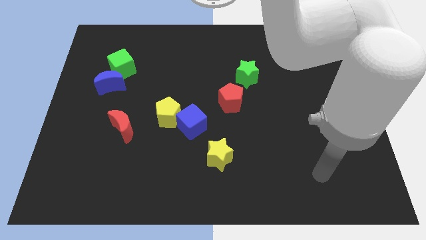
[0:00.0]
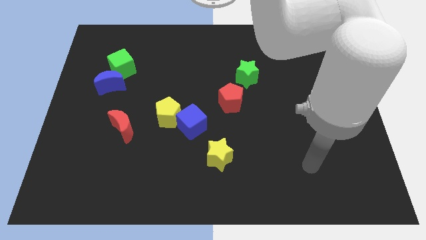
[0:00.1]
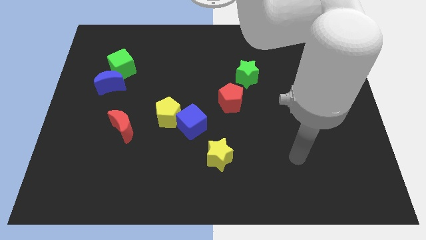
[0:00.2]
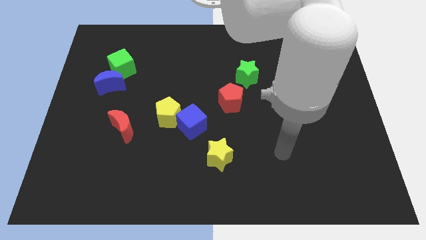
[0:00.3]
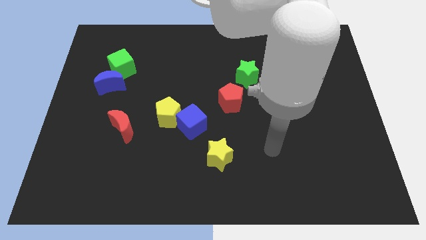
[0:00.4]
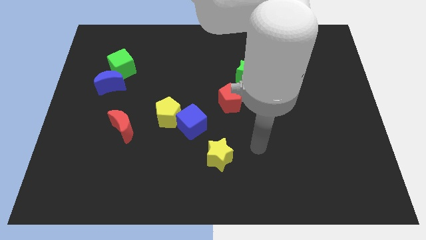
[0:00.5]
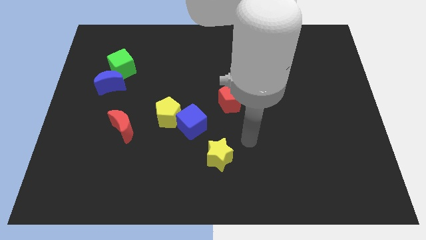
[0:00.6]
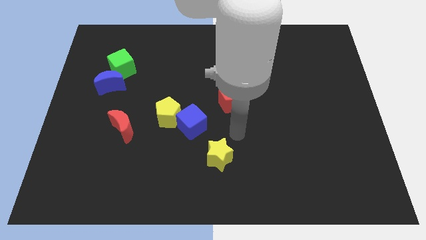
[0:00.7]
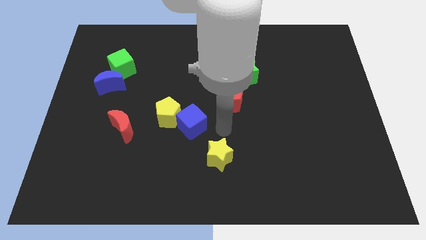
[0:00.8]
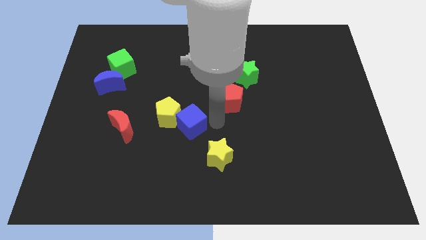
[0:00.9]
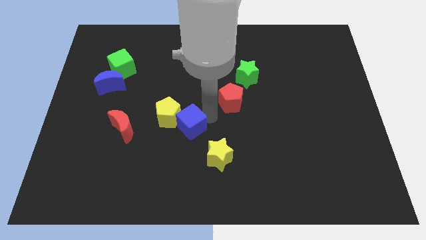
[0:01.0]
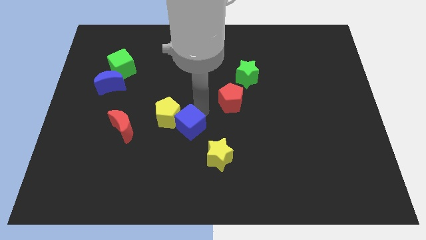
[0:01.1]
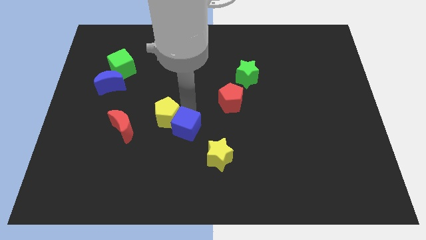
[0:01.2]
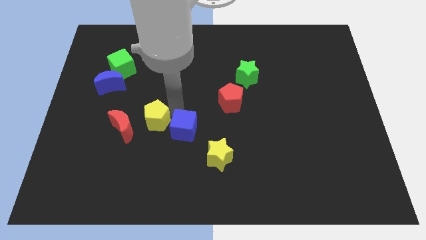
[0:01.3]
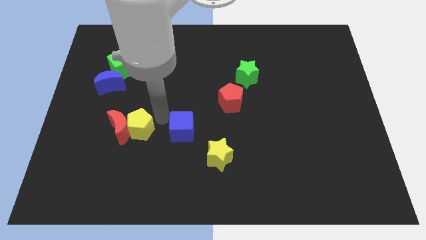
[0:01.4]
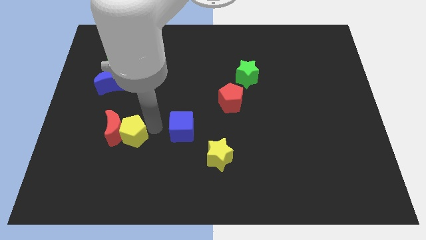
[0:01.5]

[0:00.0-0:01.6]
separate the blue cube from the yellow pentagon

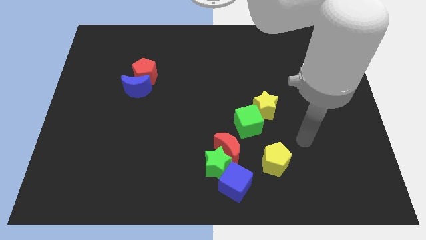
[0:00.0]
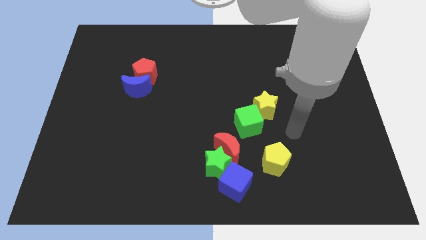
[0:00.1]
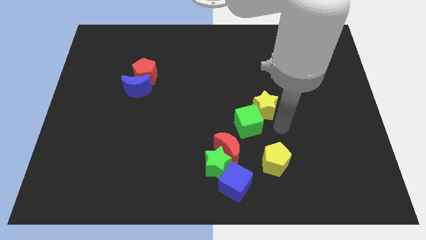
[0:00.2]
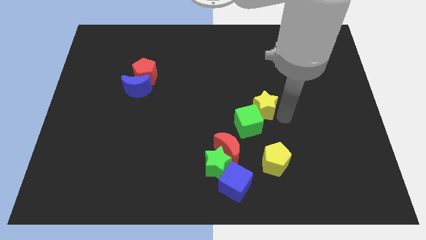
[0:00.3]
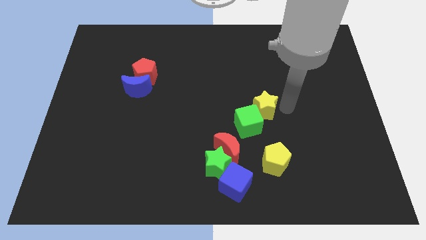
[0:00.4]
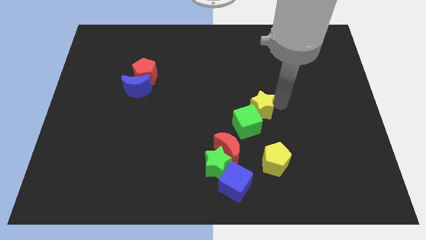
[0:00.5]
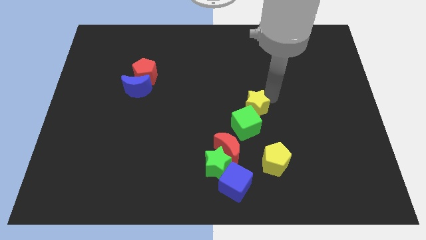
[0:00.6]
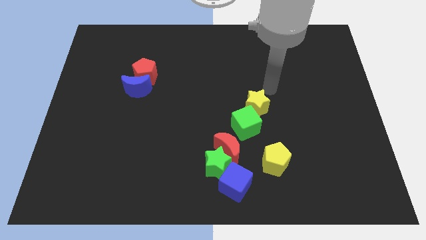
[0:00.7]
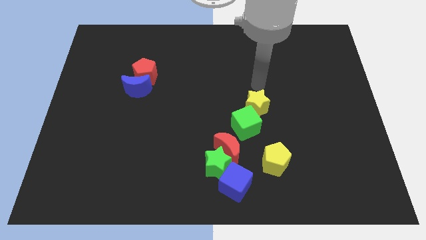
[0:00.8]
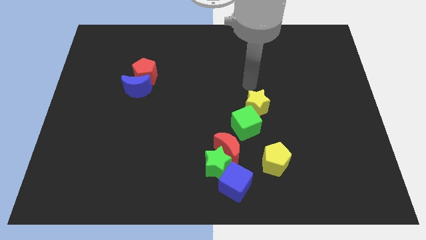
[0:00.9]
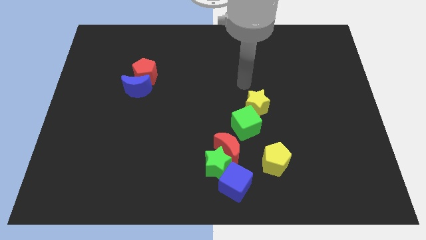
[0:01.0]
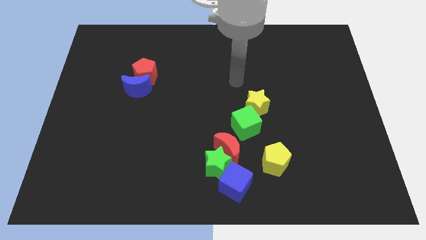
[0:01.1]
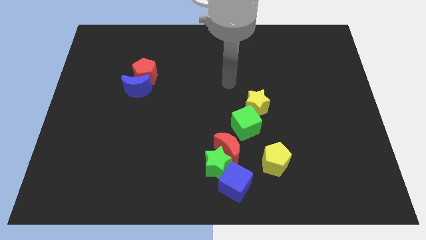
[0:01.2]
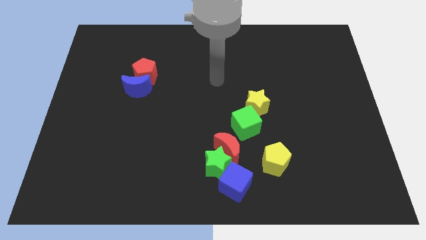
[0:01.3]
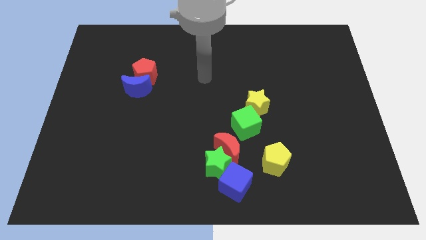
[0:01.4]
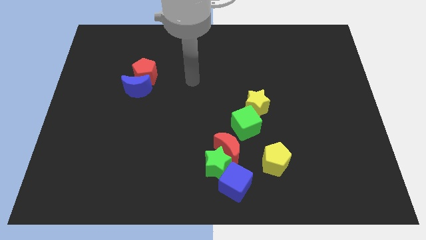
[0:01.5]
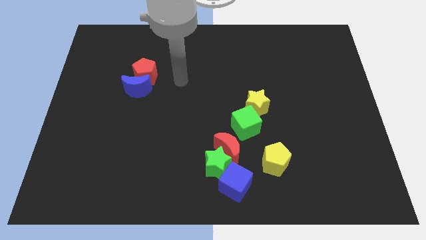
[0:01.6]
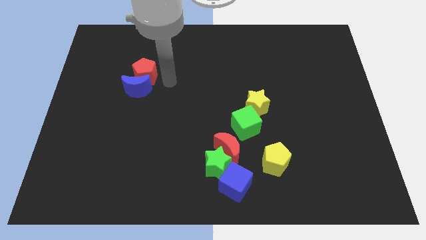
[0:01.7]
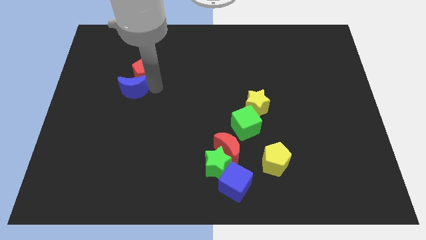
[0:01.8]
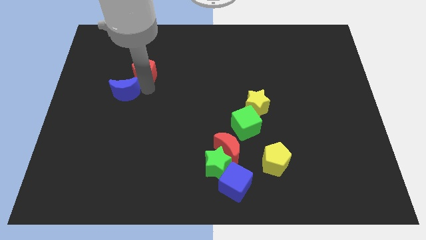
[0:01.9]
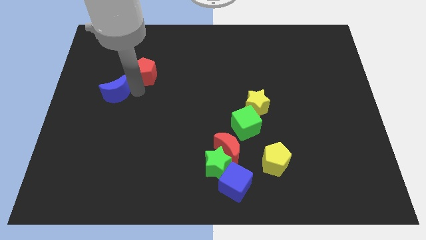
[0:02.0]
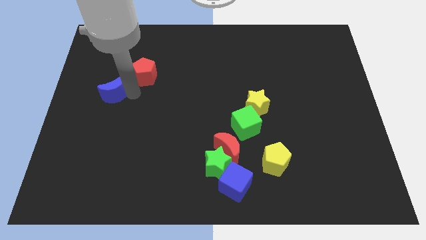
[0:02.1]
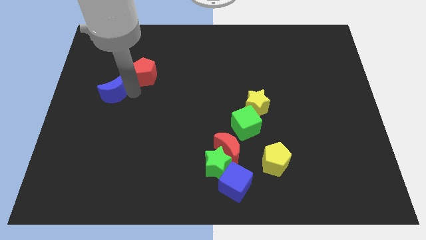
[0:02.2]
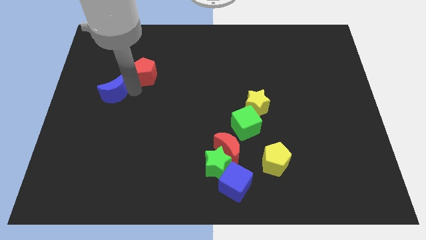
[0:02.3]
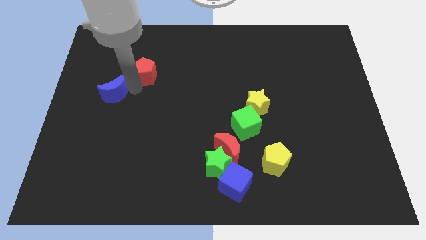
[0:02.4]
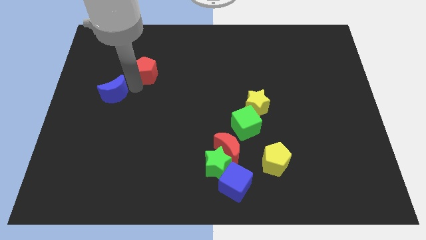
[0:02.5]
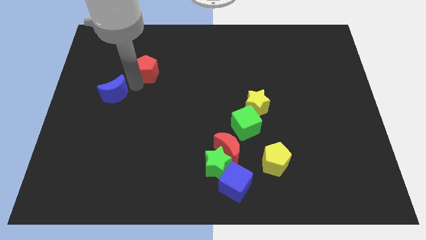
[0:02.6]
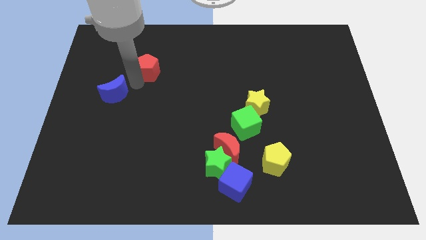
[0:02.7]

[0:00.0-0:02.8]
separate the red pentagon from the blue moon

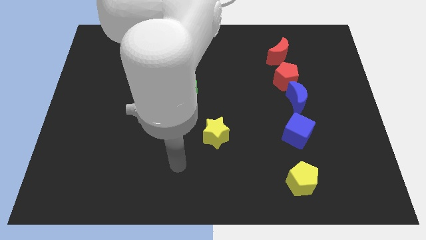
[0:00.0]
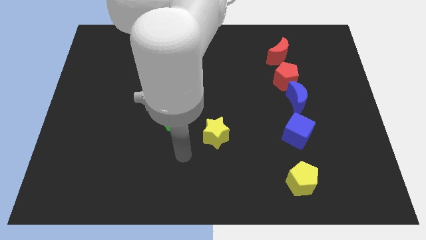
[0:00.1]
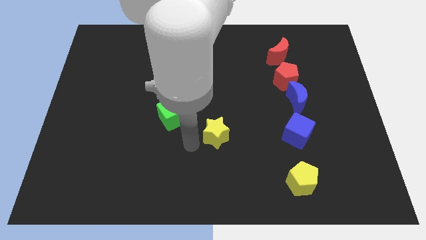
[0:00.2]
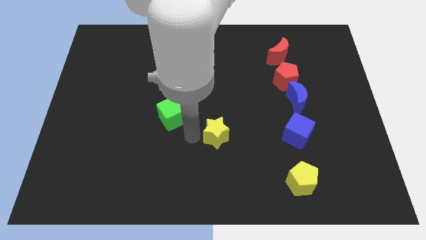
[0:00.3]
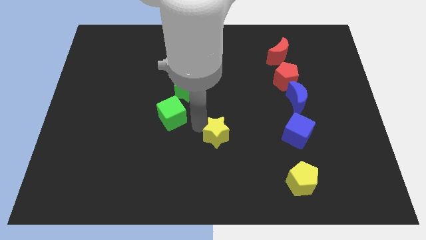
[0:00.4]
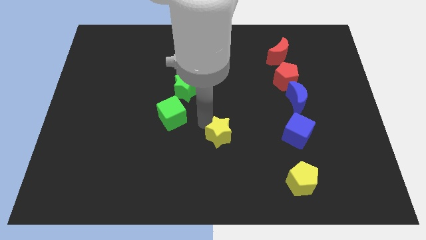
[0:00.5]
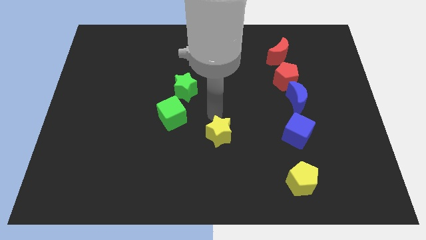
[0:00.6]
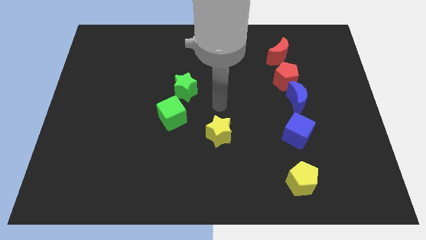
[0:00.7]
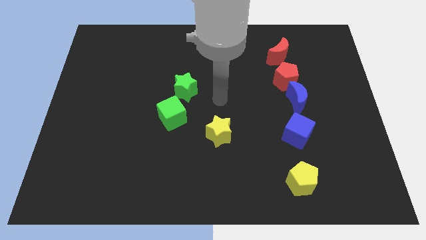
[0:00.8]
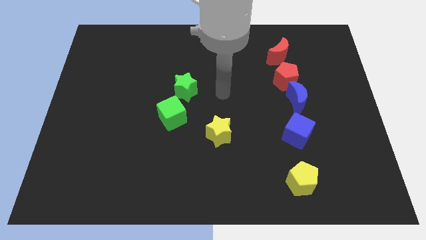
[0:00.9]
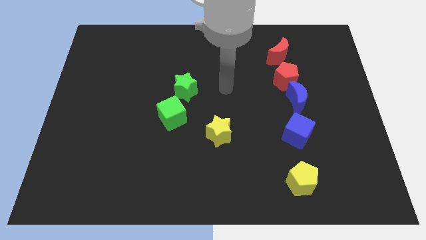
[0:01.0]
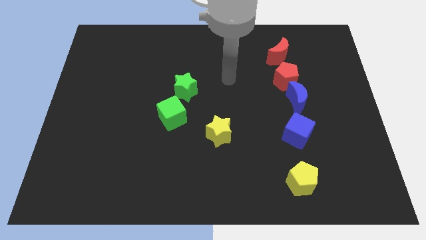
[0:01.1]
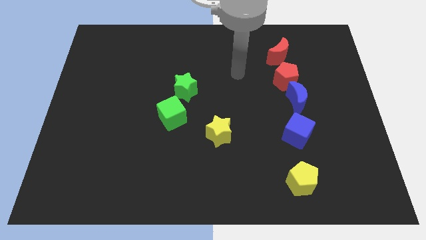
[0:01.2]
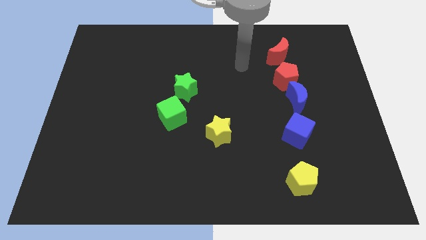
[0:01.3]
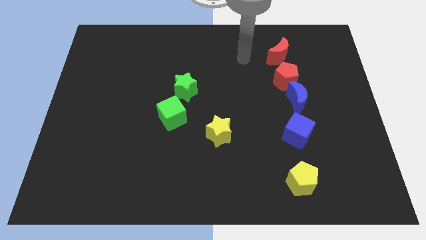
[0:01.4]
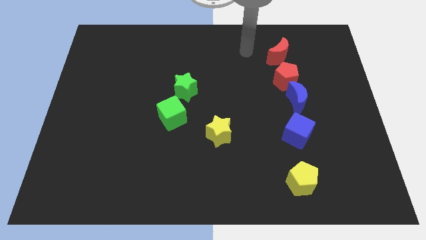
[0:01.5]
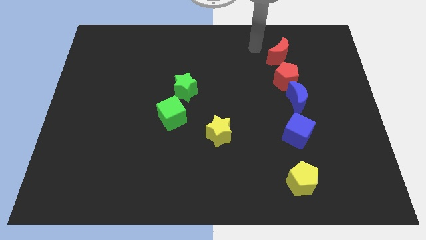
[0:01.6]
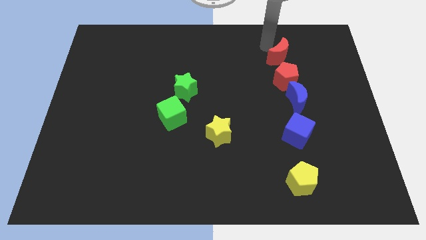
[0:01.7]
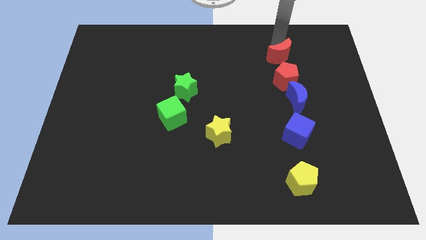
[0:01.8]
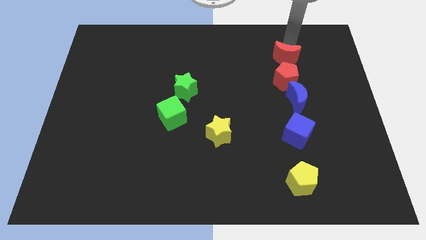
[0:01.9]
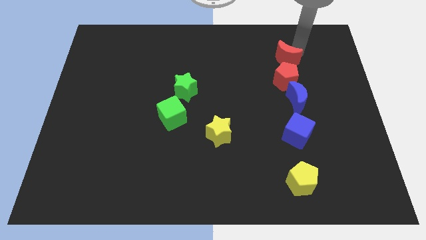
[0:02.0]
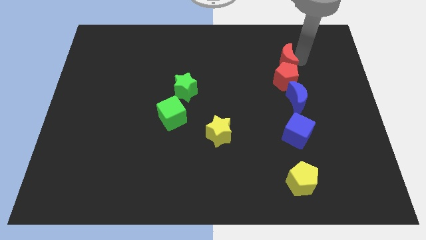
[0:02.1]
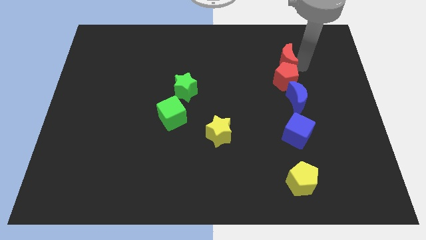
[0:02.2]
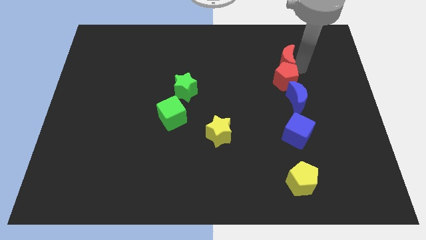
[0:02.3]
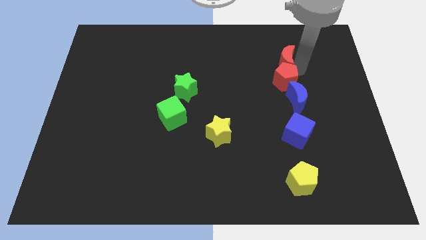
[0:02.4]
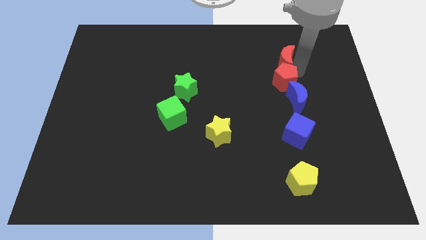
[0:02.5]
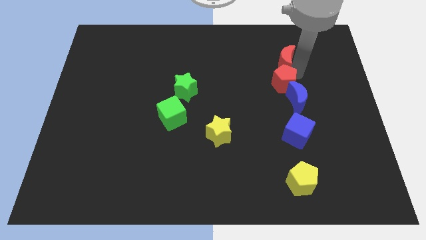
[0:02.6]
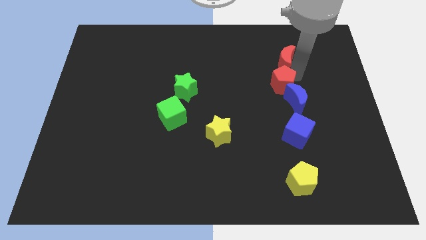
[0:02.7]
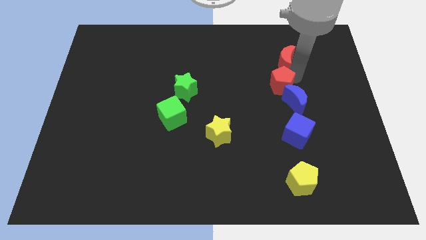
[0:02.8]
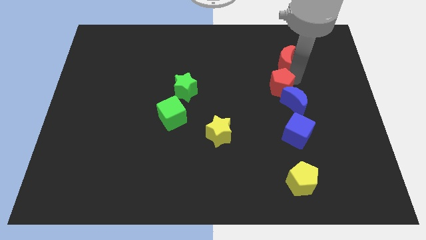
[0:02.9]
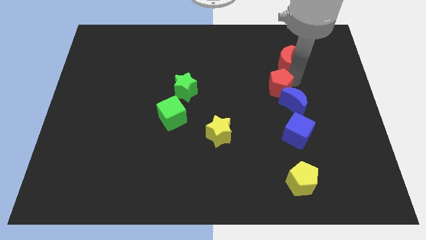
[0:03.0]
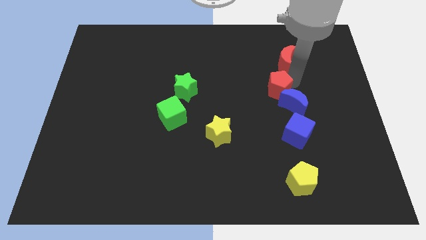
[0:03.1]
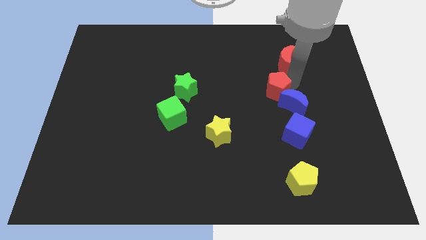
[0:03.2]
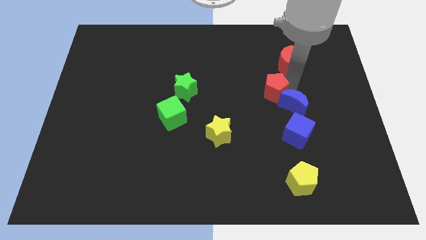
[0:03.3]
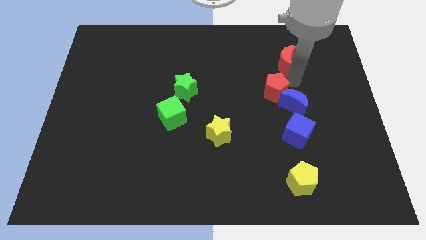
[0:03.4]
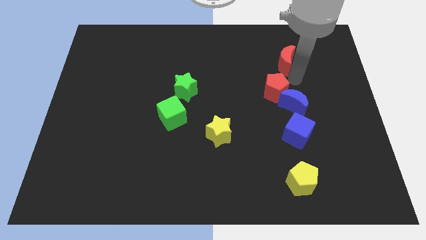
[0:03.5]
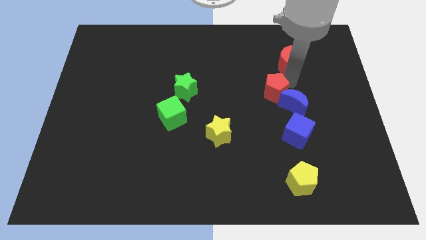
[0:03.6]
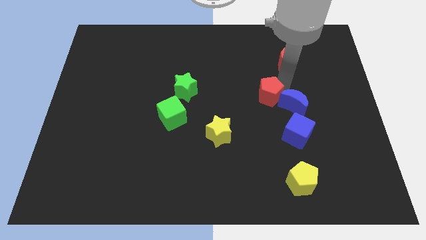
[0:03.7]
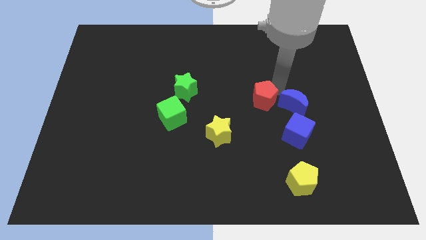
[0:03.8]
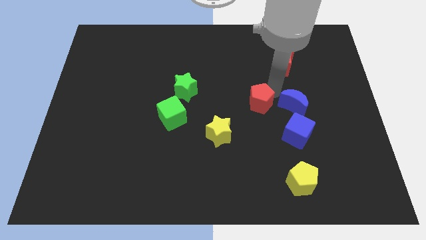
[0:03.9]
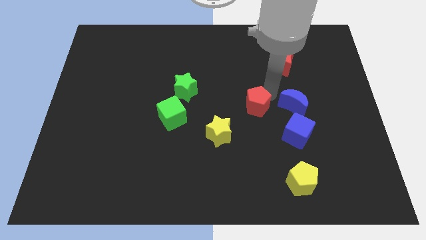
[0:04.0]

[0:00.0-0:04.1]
pull the red pentagon apart from the blue moon and red moon

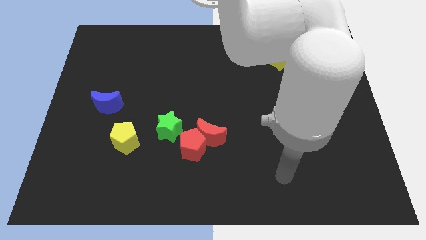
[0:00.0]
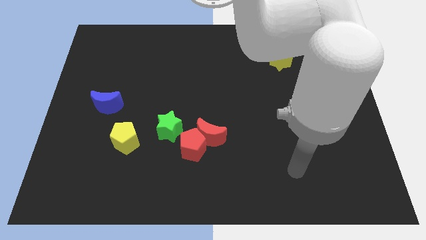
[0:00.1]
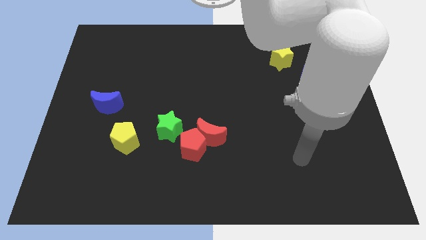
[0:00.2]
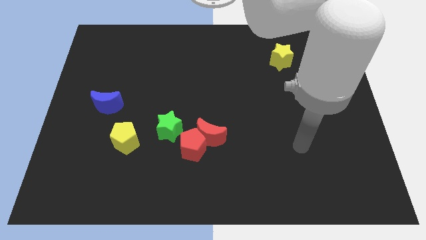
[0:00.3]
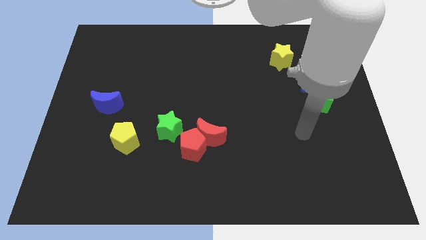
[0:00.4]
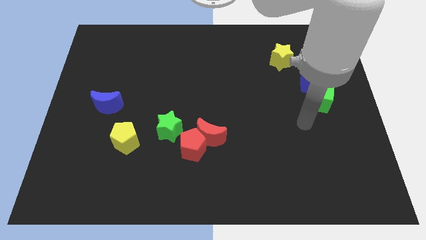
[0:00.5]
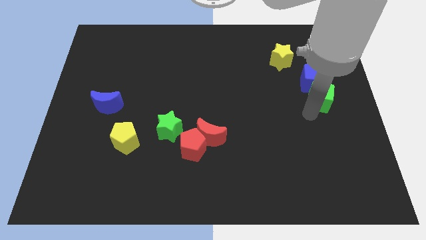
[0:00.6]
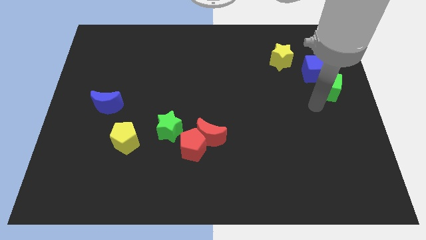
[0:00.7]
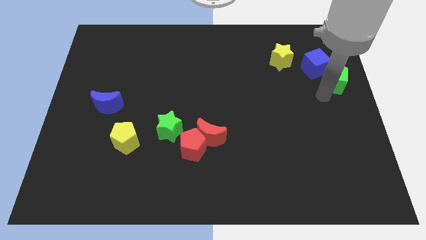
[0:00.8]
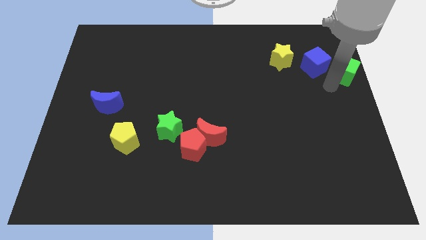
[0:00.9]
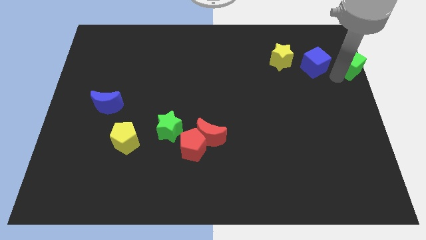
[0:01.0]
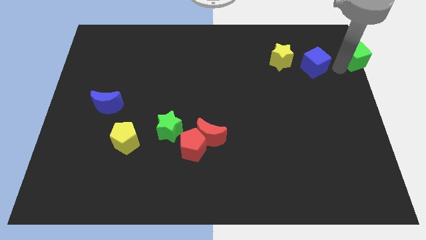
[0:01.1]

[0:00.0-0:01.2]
separate the blue cube from the green cube
